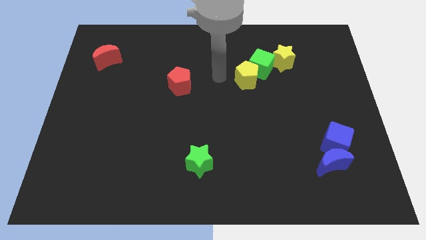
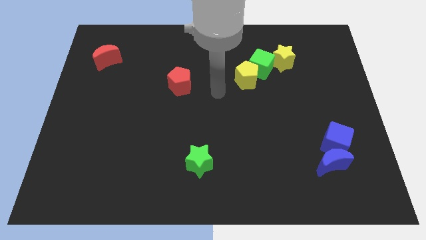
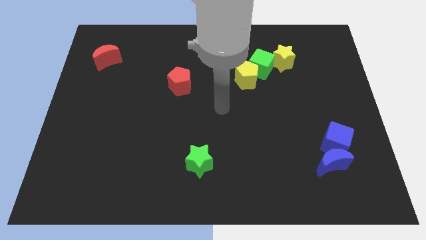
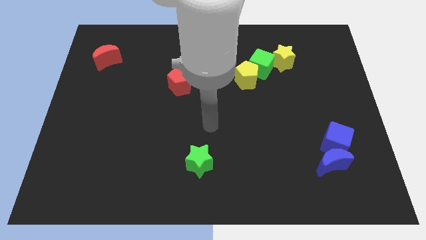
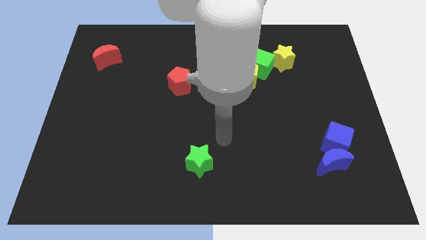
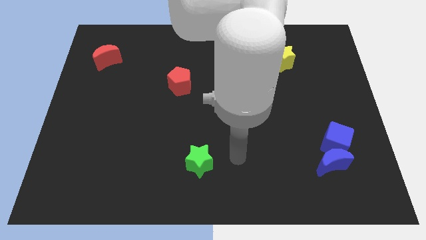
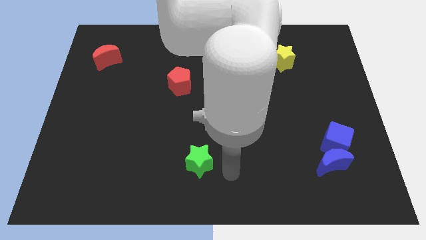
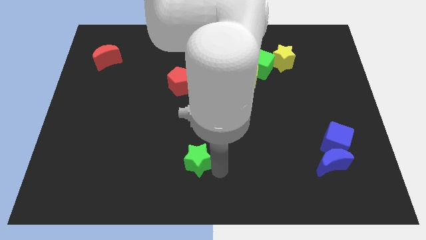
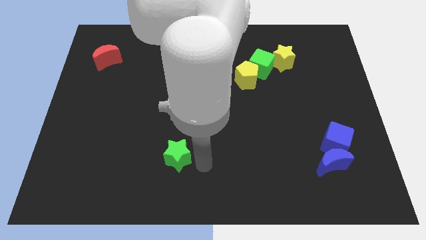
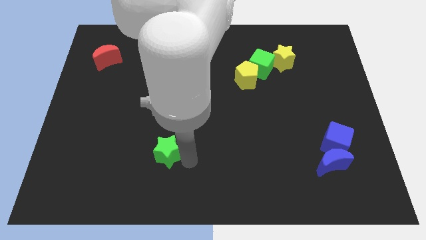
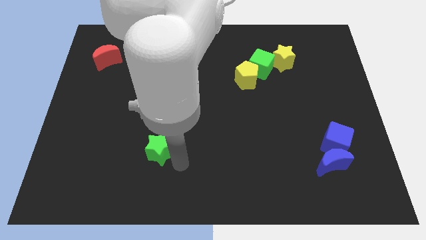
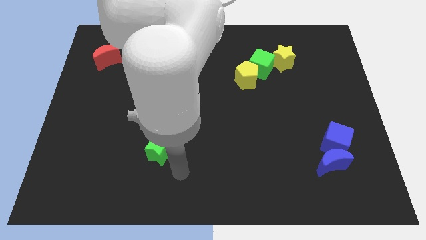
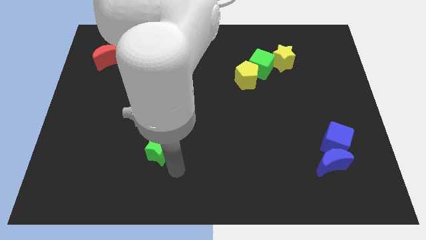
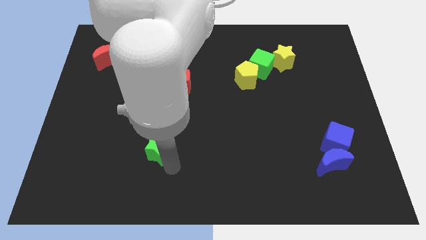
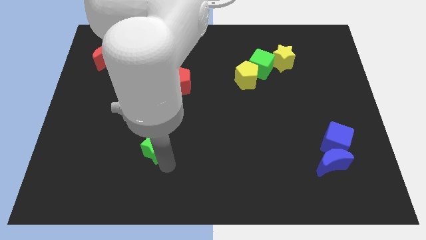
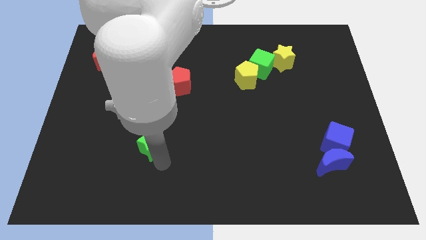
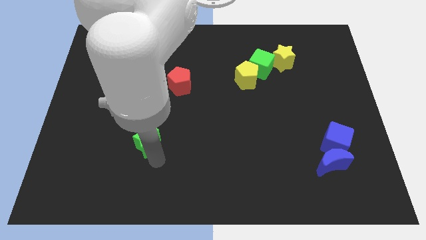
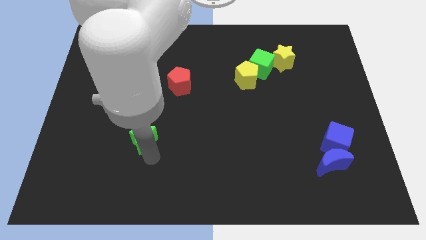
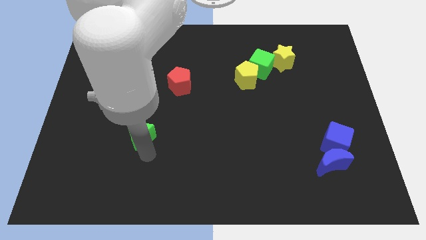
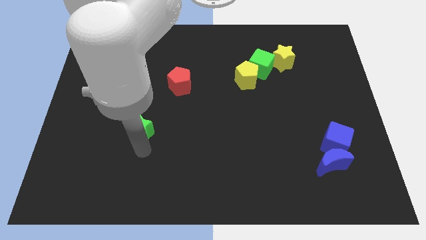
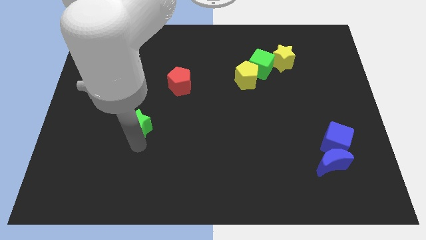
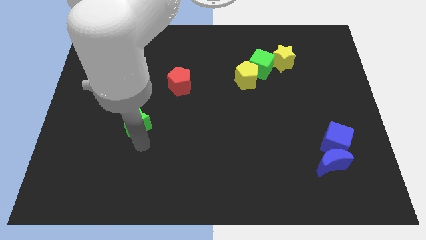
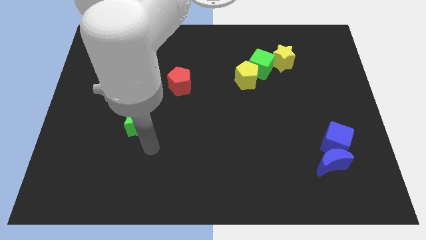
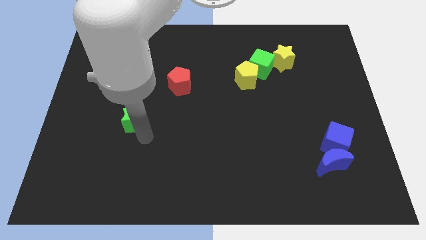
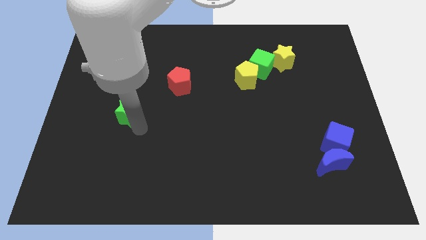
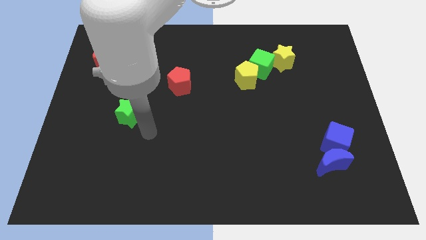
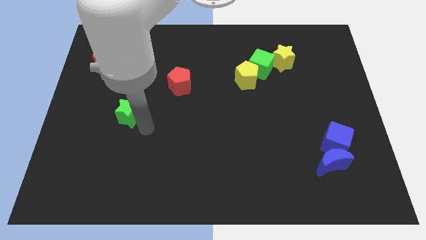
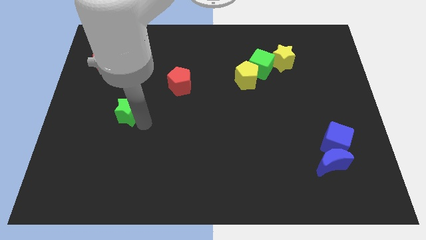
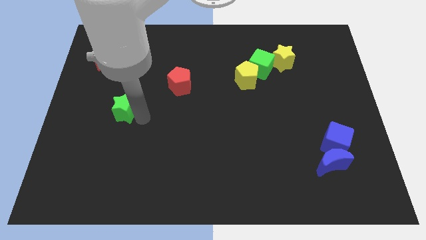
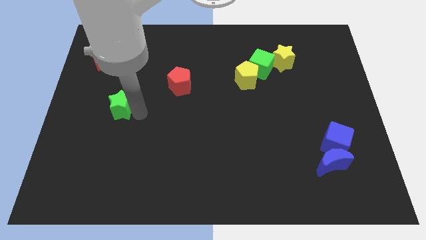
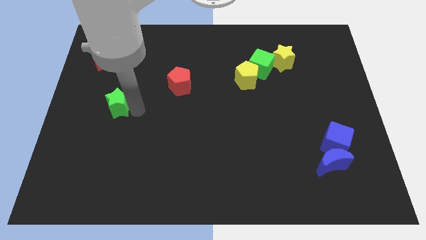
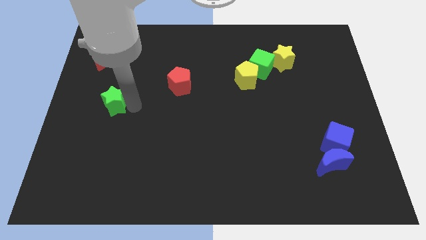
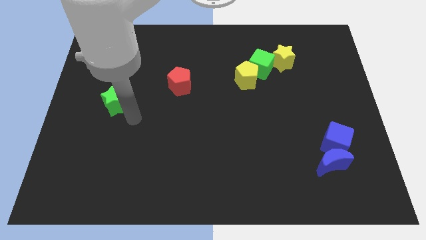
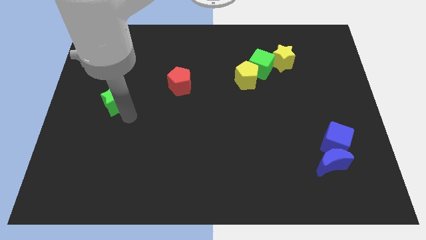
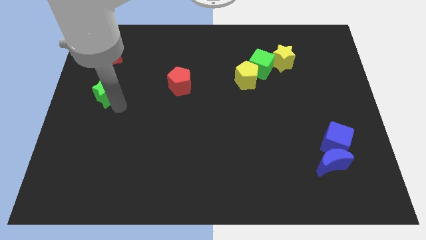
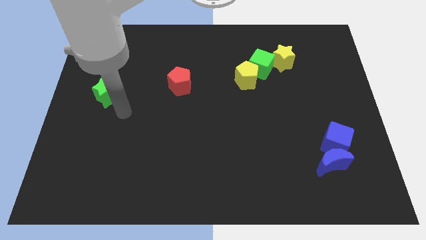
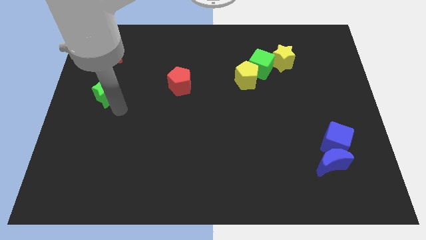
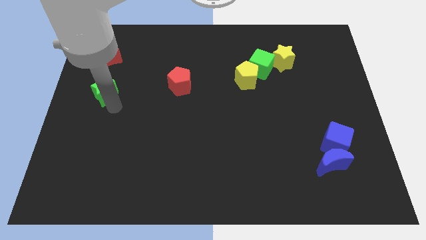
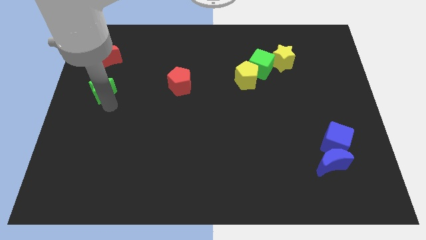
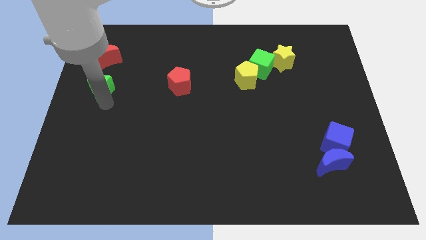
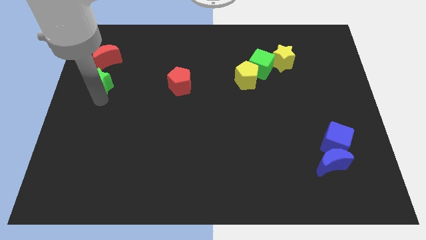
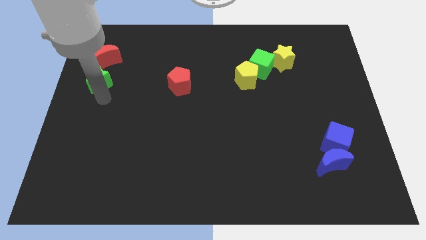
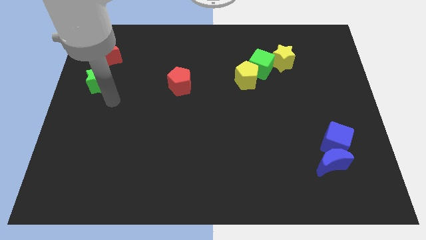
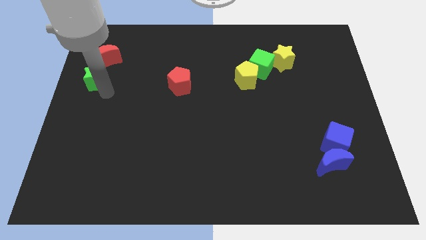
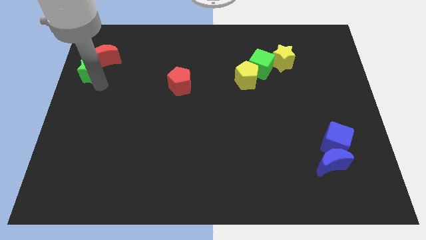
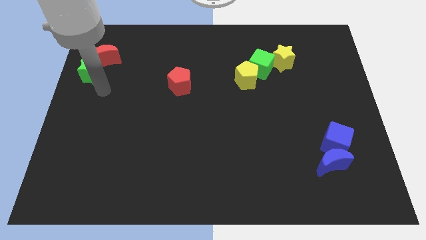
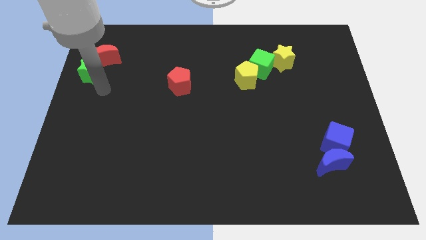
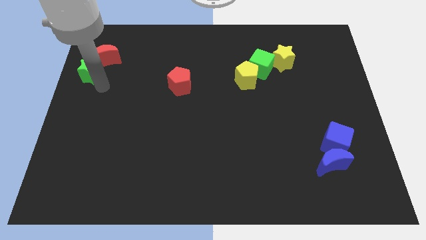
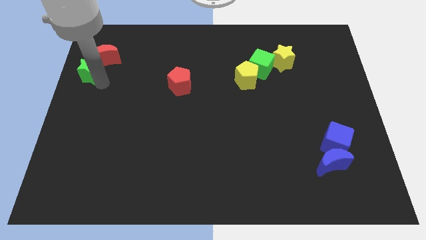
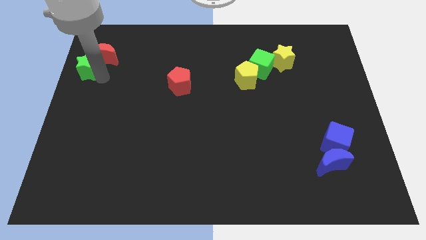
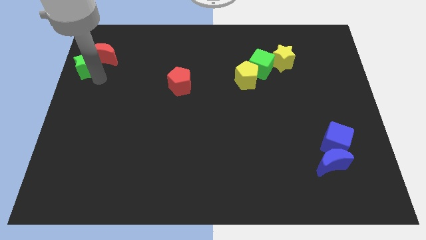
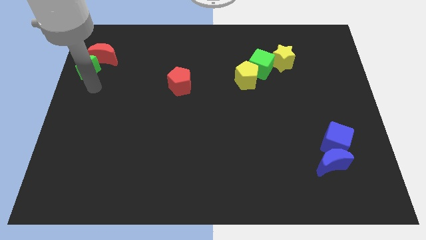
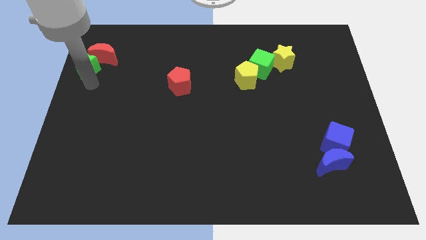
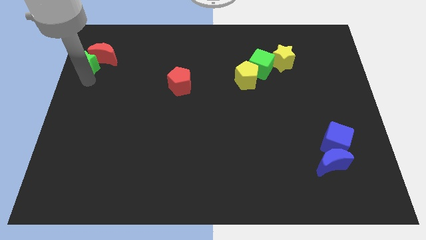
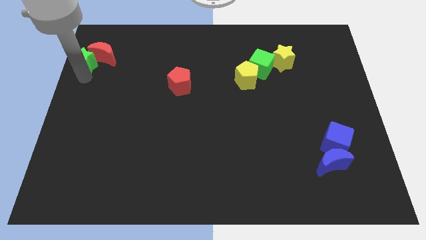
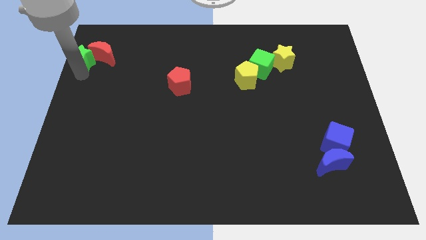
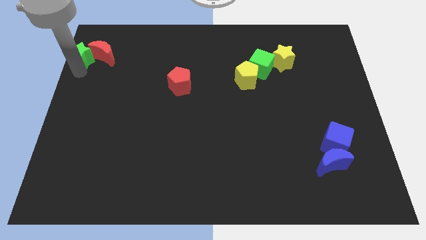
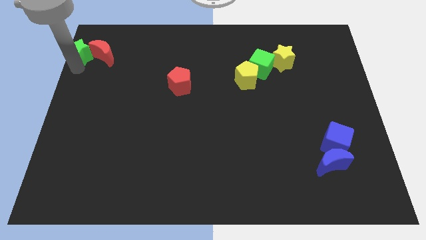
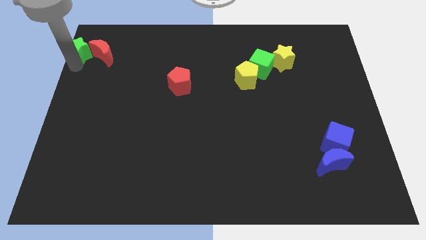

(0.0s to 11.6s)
push the green star to the upper left corner
